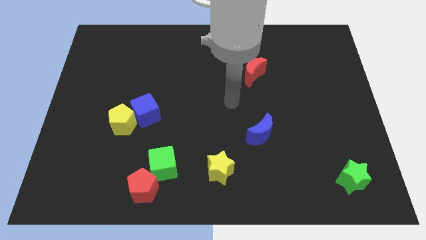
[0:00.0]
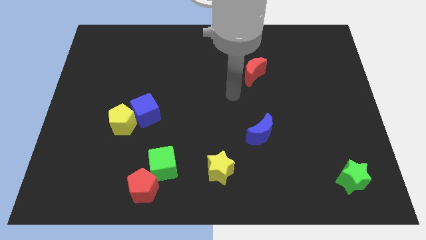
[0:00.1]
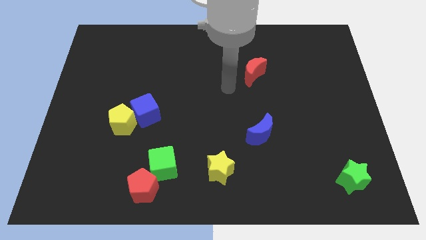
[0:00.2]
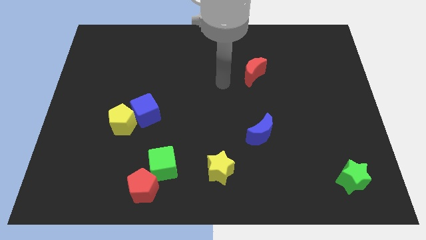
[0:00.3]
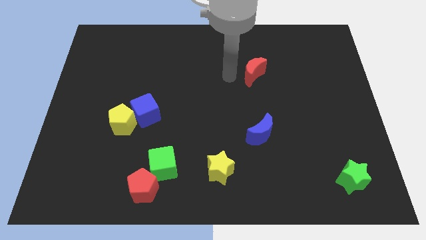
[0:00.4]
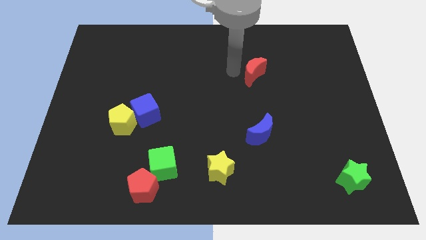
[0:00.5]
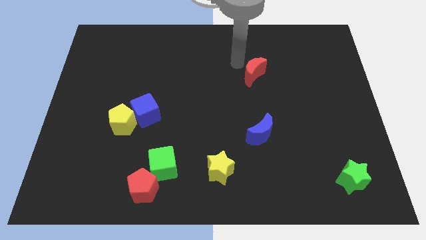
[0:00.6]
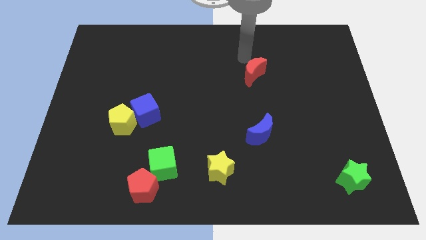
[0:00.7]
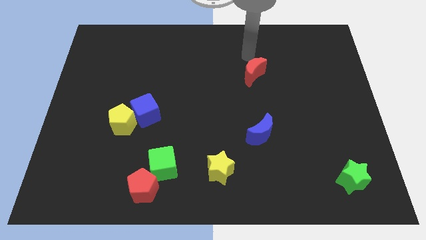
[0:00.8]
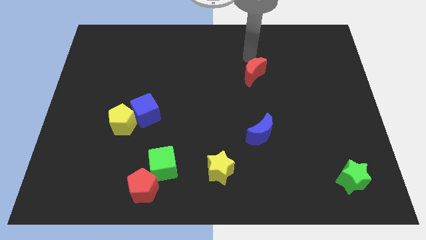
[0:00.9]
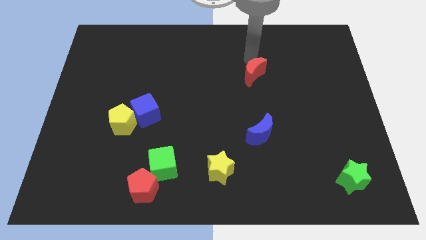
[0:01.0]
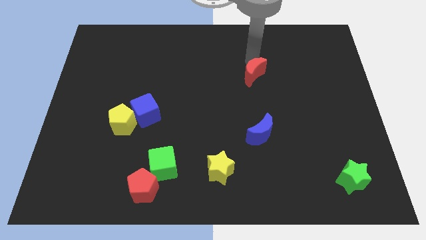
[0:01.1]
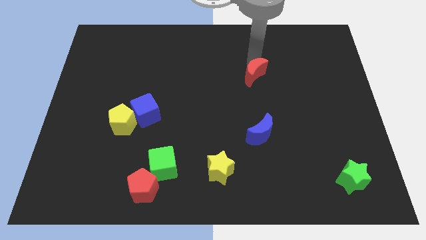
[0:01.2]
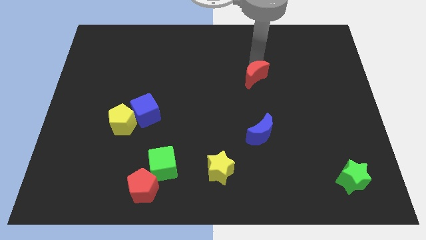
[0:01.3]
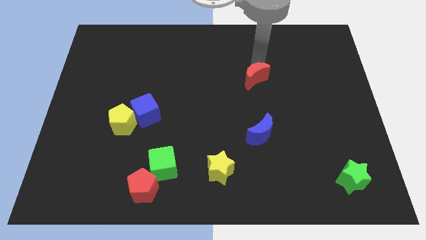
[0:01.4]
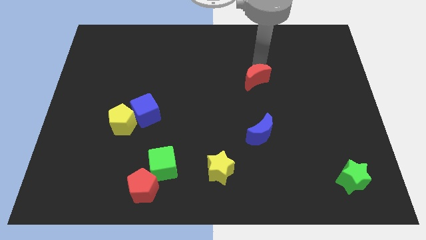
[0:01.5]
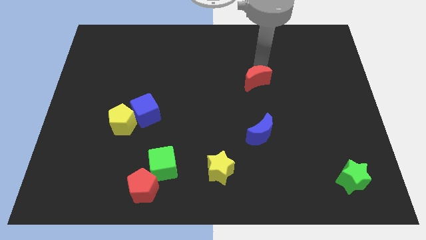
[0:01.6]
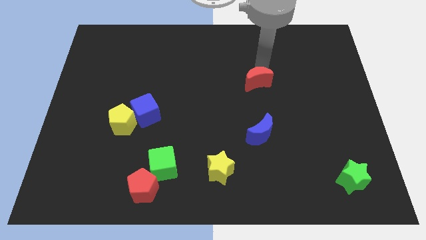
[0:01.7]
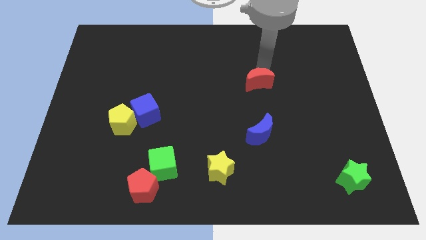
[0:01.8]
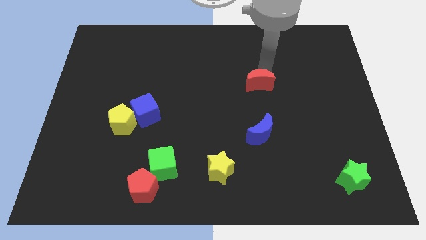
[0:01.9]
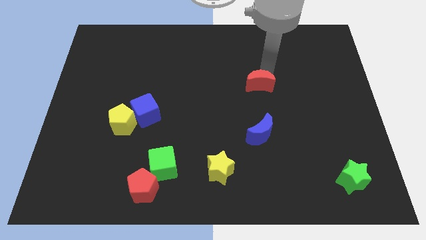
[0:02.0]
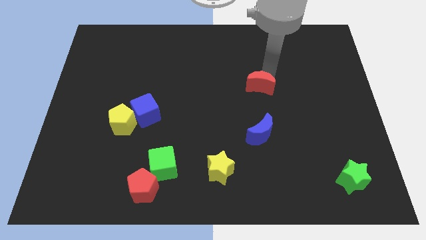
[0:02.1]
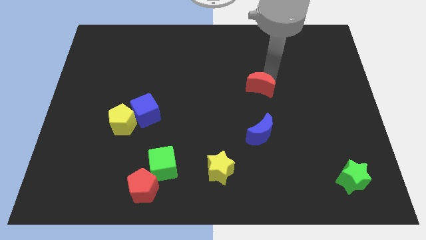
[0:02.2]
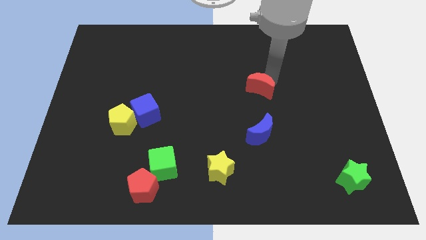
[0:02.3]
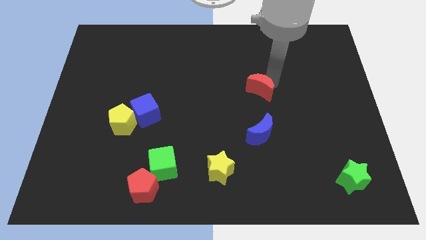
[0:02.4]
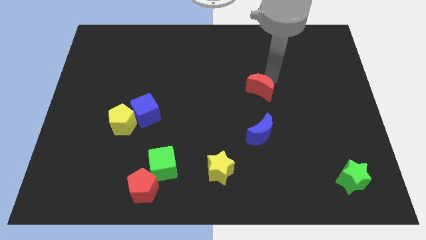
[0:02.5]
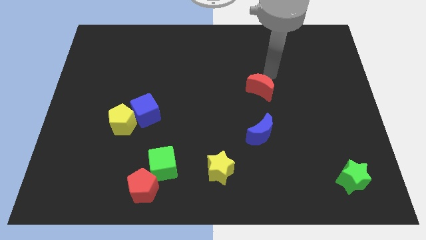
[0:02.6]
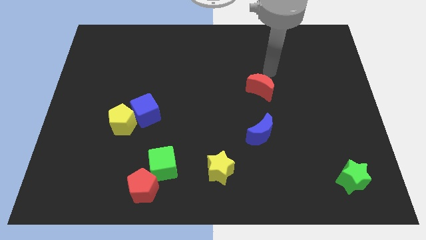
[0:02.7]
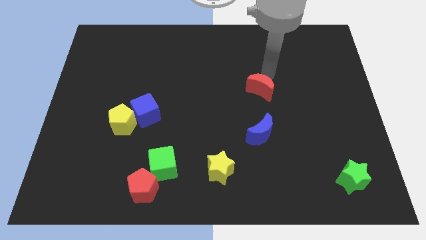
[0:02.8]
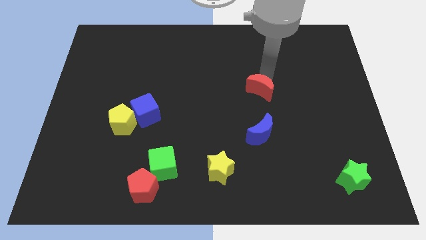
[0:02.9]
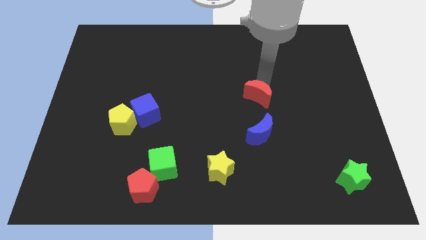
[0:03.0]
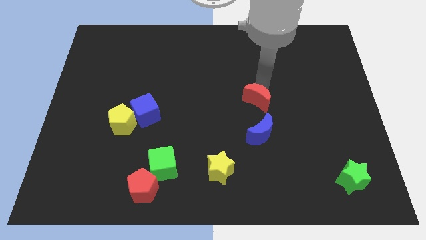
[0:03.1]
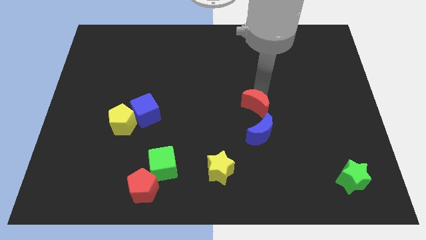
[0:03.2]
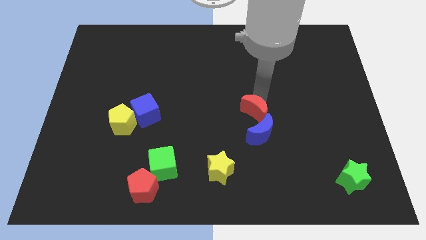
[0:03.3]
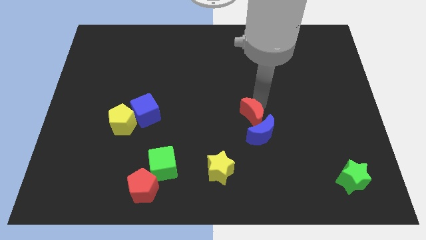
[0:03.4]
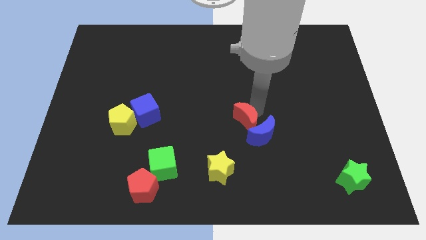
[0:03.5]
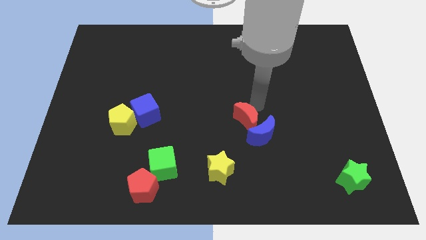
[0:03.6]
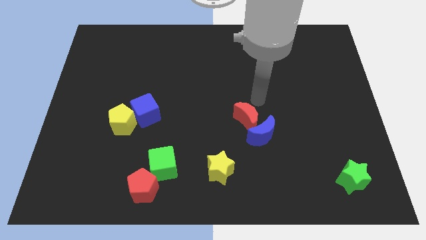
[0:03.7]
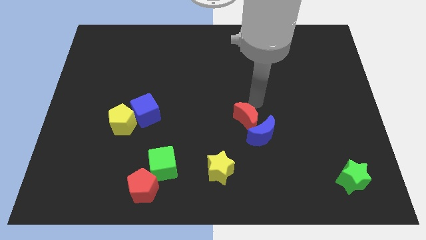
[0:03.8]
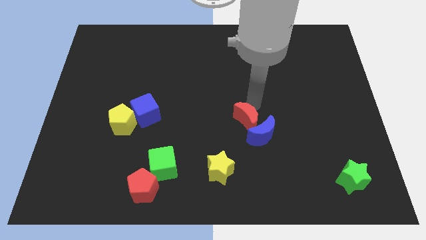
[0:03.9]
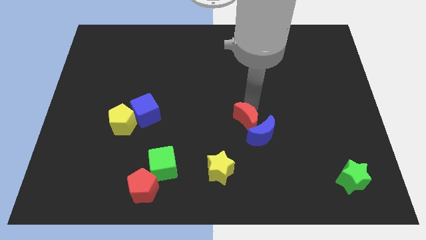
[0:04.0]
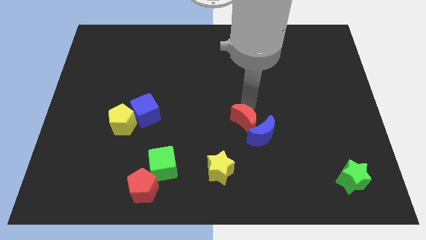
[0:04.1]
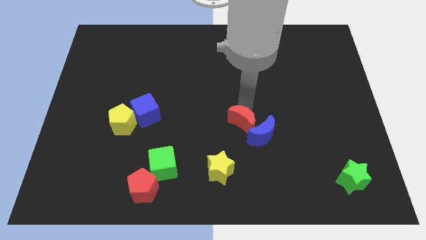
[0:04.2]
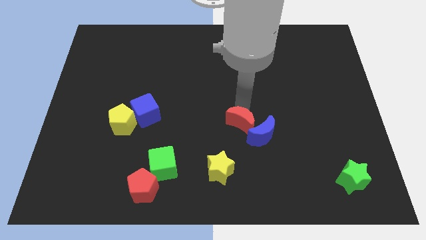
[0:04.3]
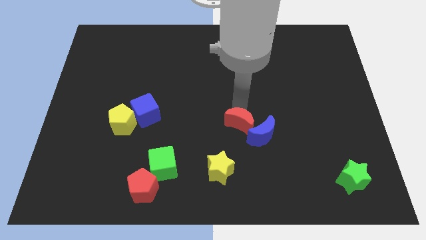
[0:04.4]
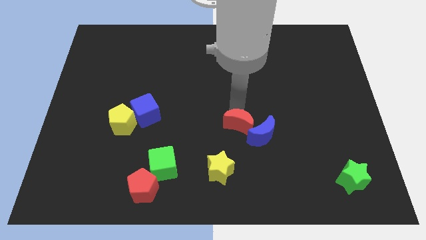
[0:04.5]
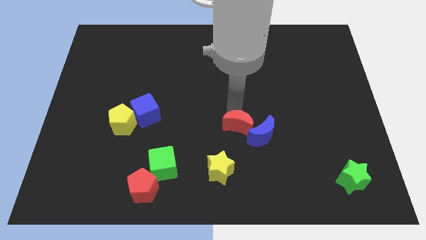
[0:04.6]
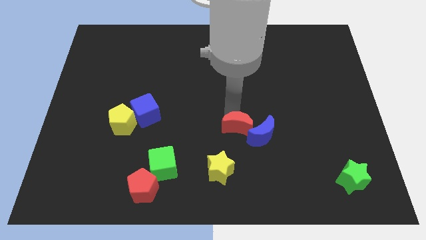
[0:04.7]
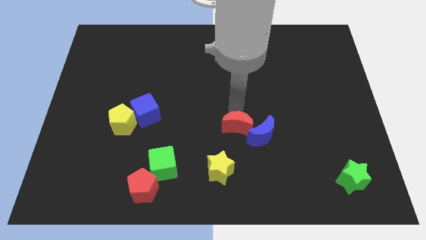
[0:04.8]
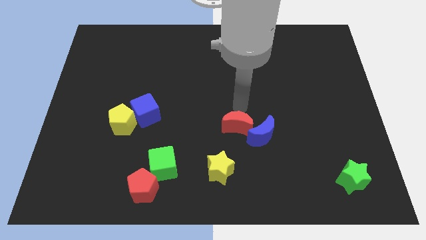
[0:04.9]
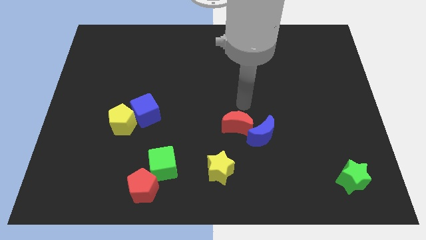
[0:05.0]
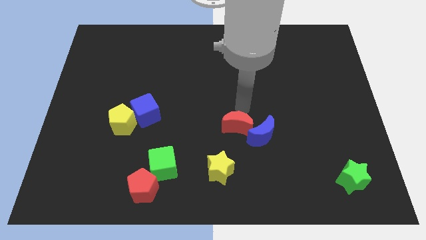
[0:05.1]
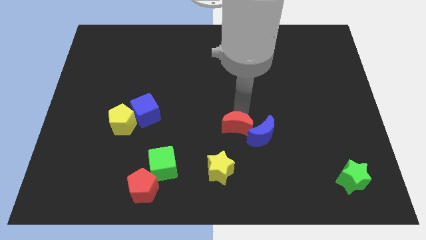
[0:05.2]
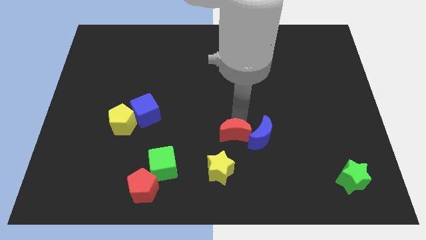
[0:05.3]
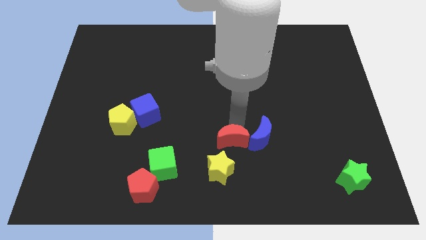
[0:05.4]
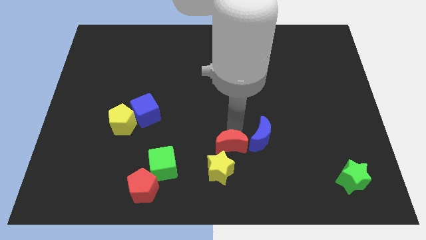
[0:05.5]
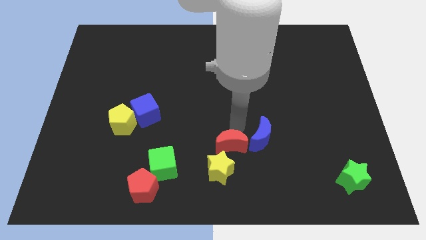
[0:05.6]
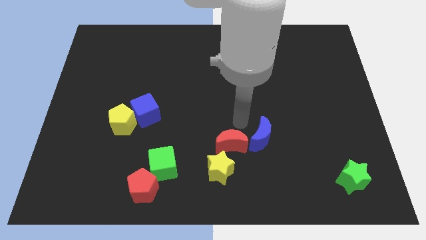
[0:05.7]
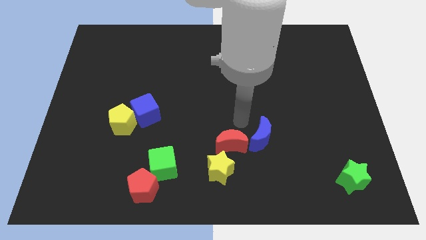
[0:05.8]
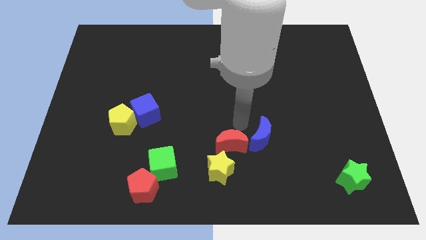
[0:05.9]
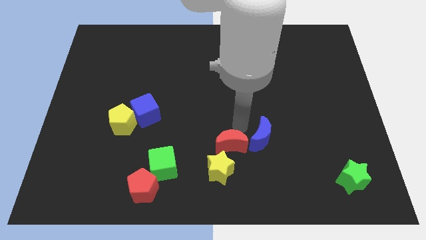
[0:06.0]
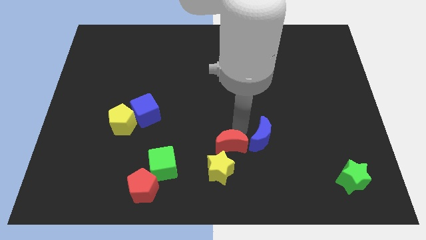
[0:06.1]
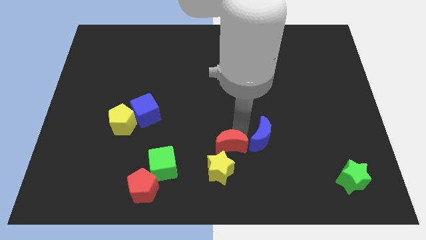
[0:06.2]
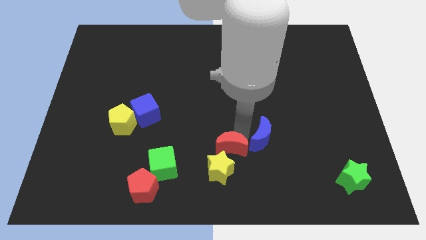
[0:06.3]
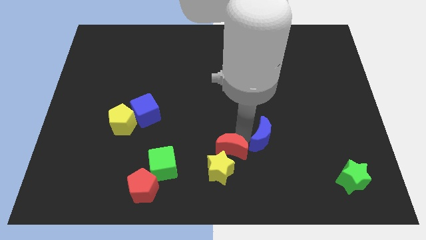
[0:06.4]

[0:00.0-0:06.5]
push the red moon towards the yellow star
